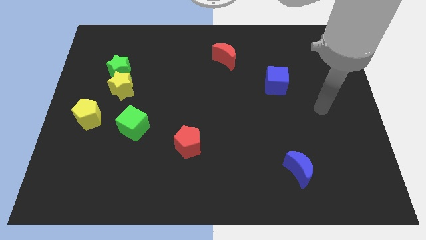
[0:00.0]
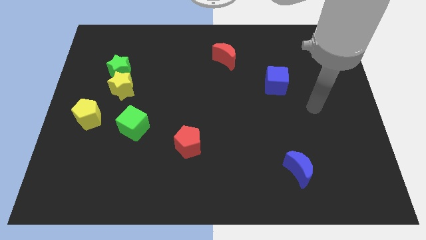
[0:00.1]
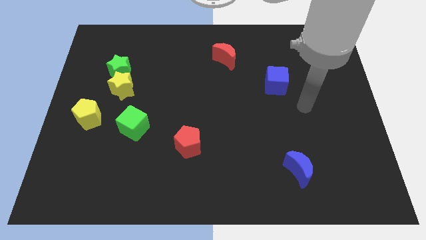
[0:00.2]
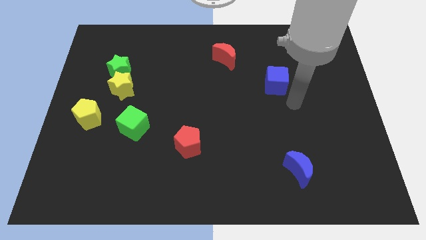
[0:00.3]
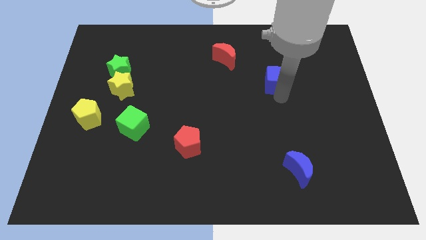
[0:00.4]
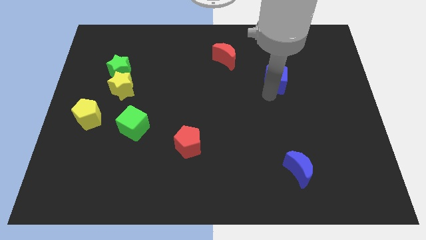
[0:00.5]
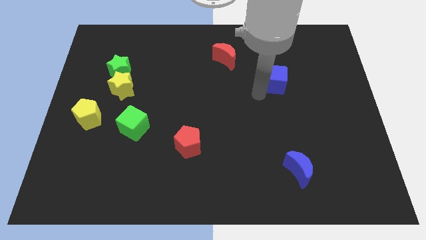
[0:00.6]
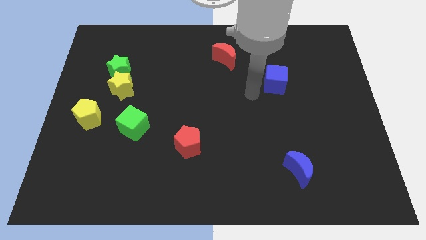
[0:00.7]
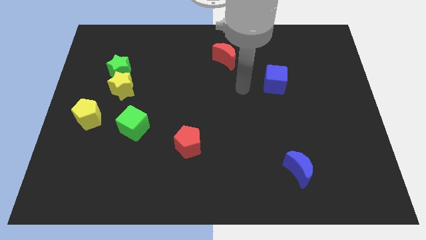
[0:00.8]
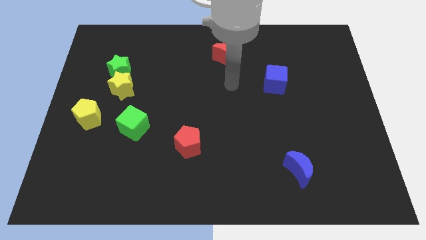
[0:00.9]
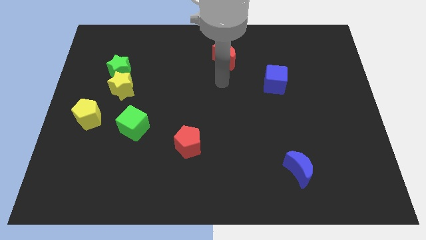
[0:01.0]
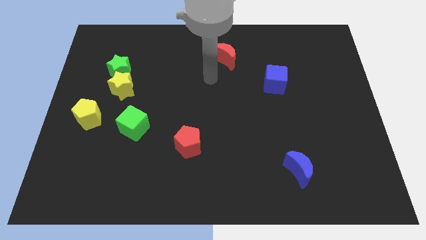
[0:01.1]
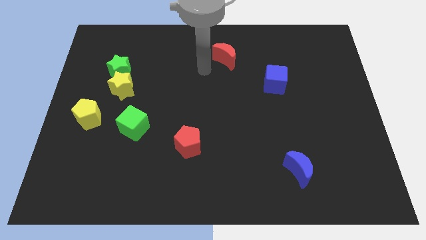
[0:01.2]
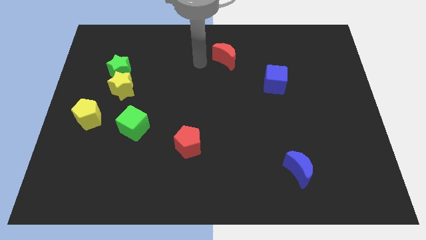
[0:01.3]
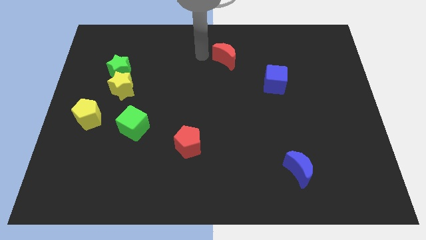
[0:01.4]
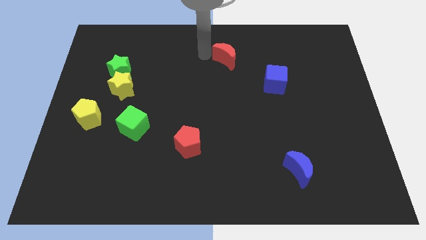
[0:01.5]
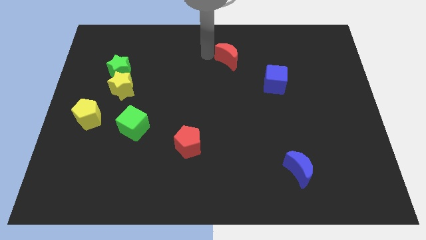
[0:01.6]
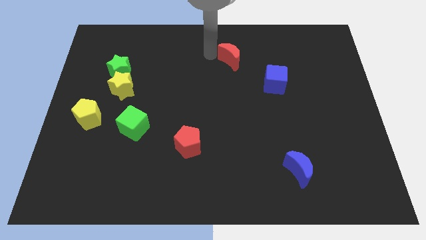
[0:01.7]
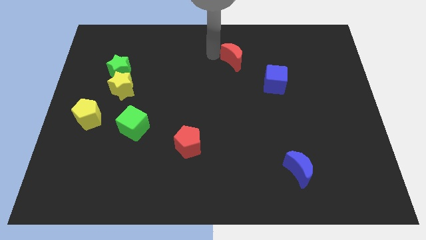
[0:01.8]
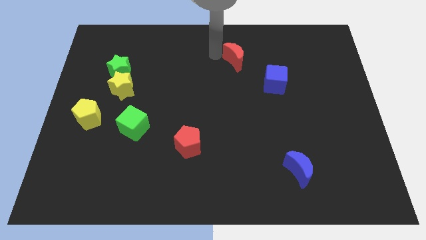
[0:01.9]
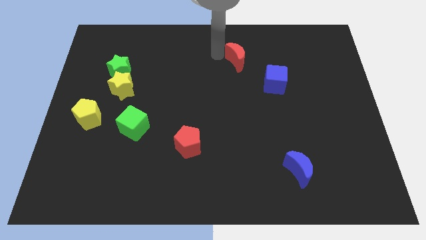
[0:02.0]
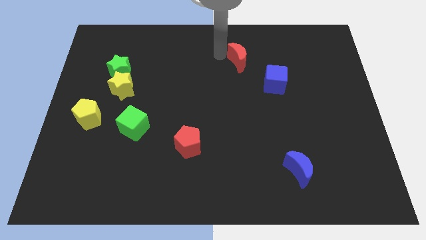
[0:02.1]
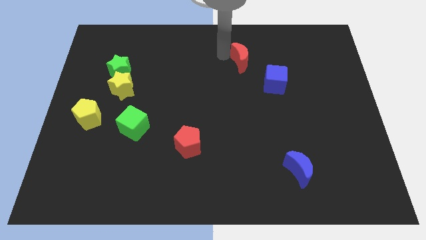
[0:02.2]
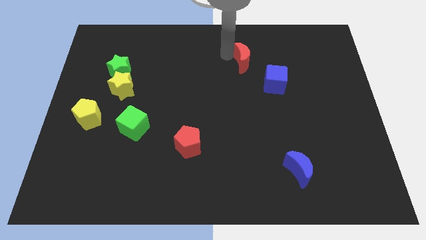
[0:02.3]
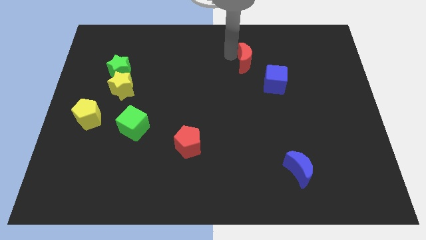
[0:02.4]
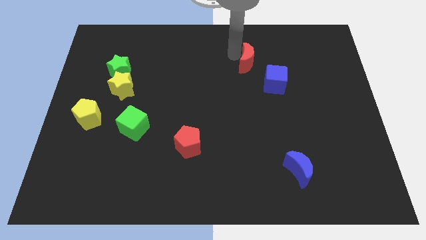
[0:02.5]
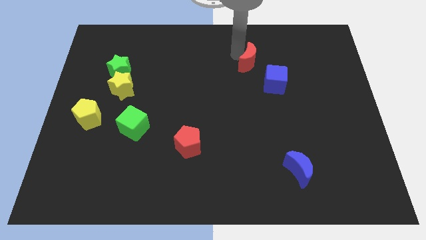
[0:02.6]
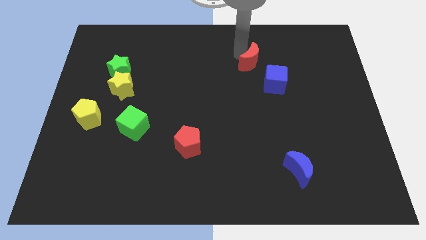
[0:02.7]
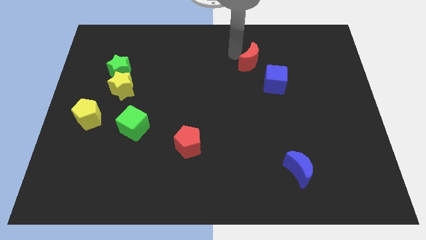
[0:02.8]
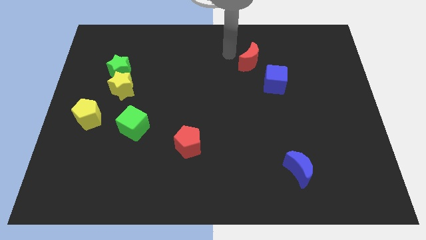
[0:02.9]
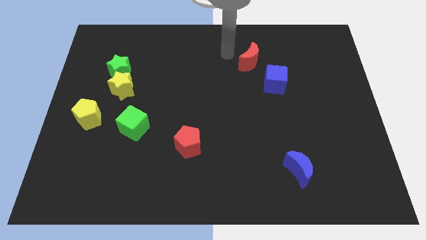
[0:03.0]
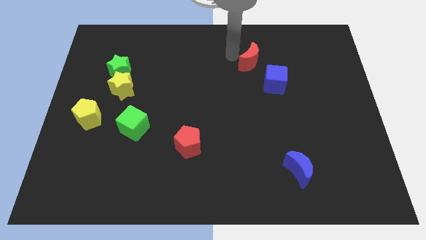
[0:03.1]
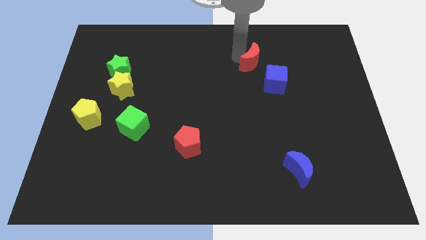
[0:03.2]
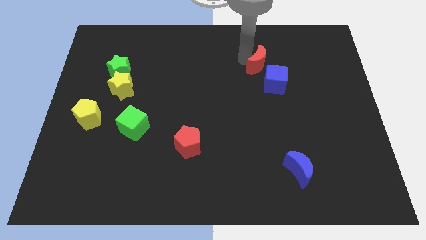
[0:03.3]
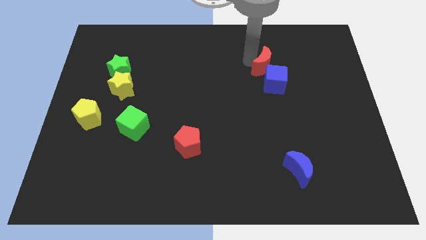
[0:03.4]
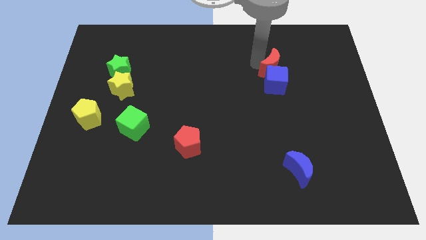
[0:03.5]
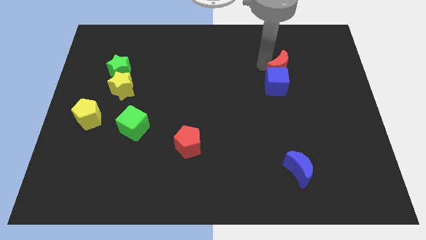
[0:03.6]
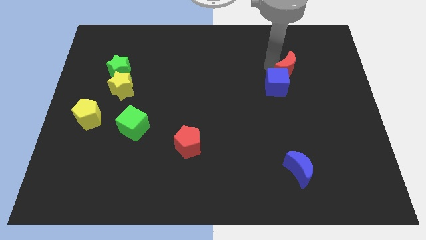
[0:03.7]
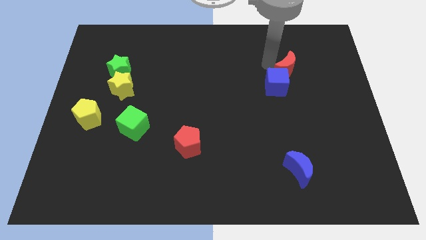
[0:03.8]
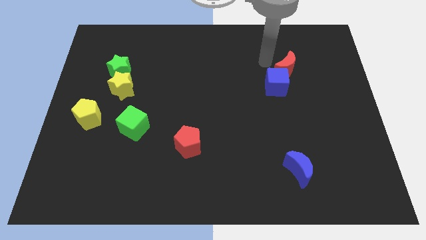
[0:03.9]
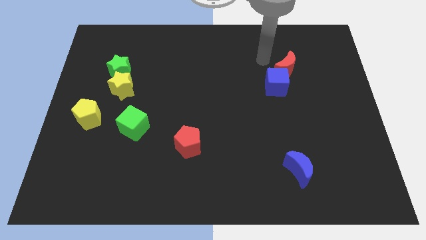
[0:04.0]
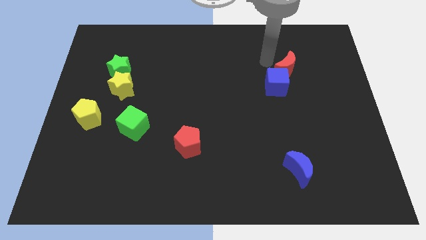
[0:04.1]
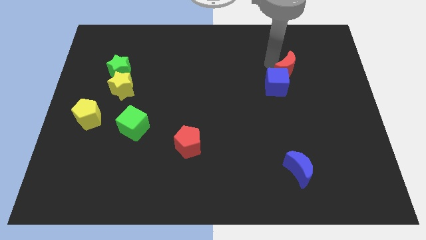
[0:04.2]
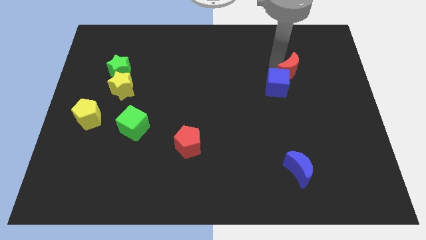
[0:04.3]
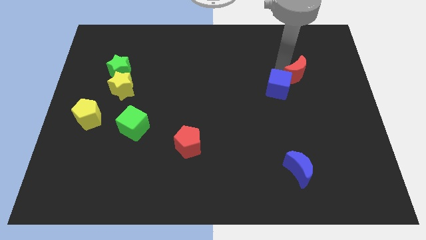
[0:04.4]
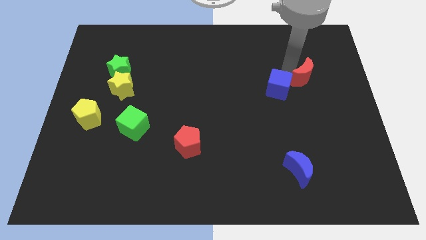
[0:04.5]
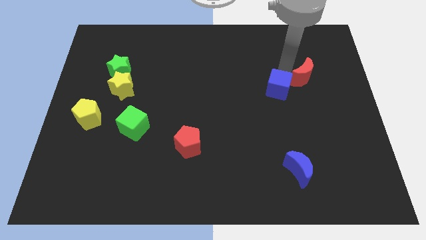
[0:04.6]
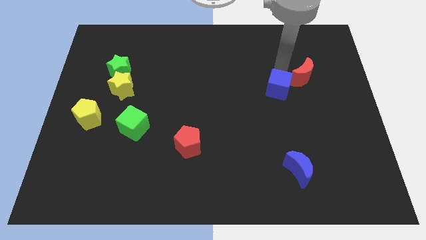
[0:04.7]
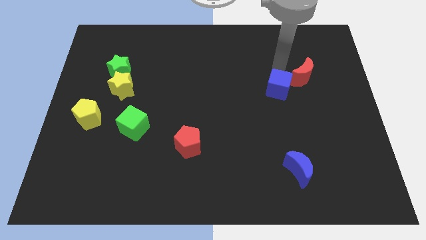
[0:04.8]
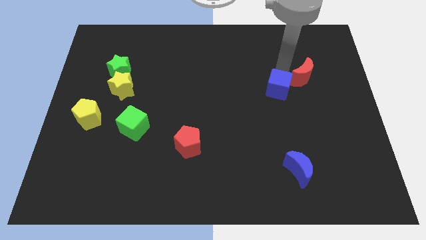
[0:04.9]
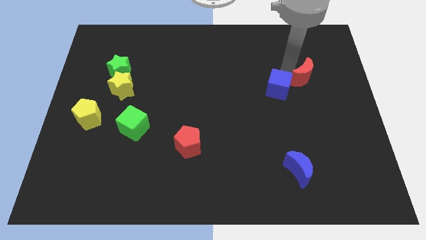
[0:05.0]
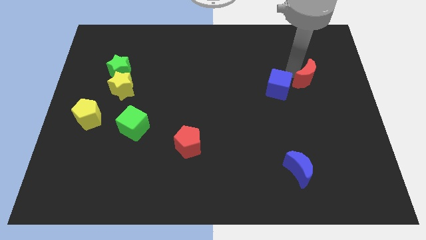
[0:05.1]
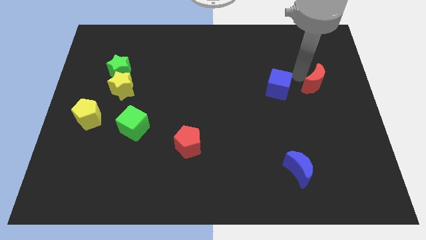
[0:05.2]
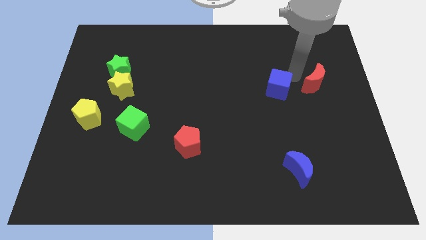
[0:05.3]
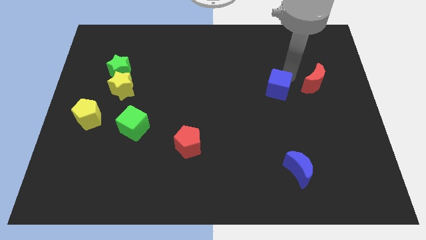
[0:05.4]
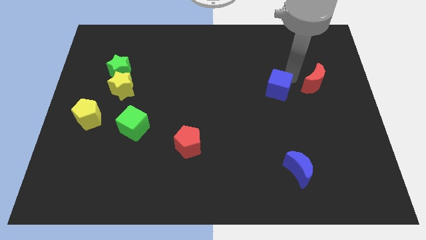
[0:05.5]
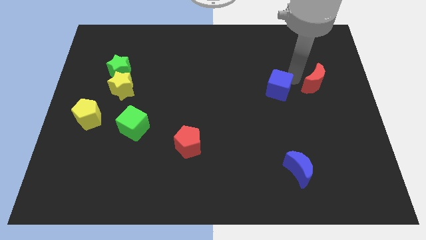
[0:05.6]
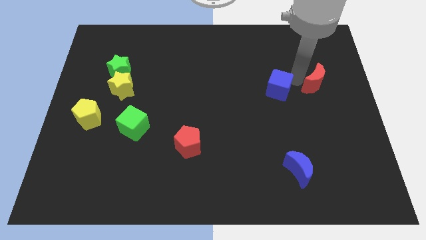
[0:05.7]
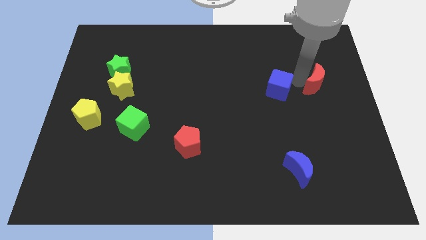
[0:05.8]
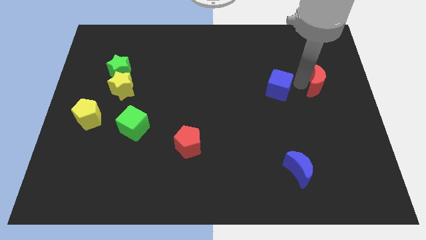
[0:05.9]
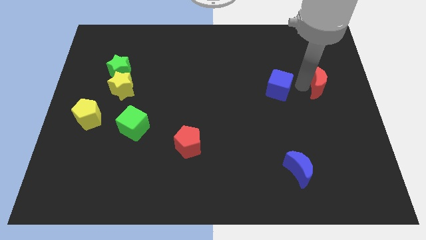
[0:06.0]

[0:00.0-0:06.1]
slide the red moon to the right side
